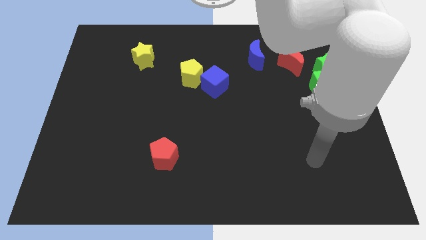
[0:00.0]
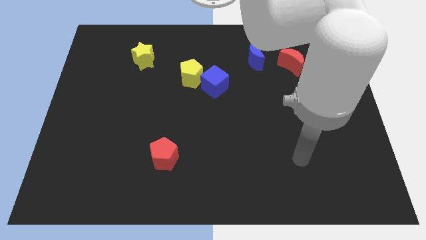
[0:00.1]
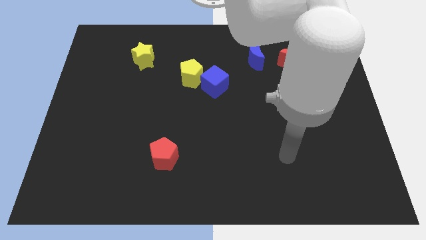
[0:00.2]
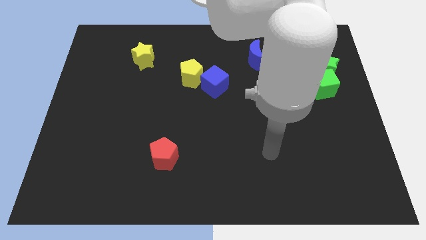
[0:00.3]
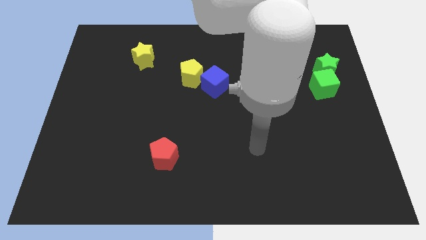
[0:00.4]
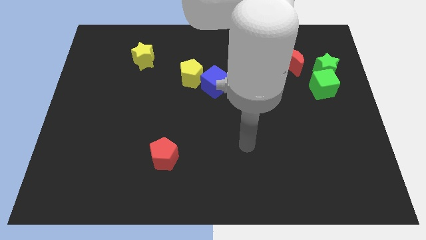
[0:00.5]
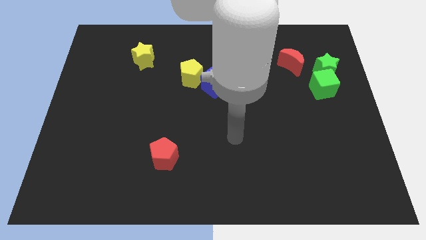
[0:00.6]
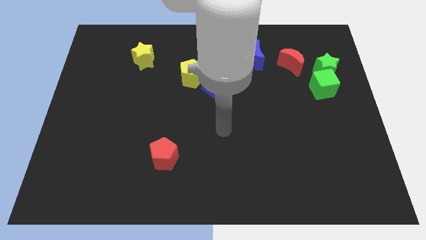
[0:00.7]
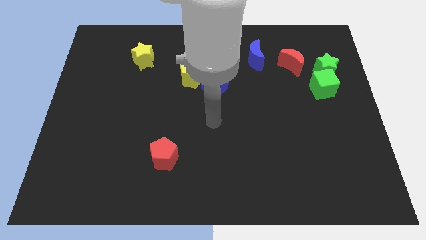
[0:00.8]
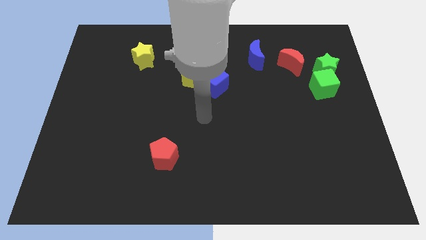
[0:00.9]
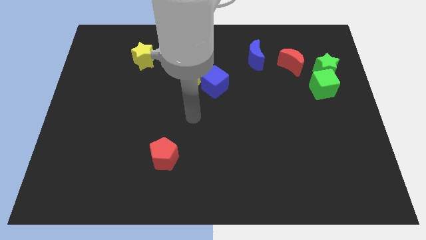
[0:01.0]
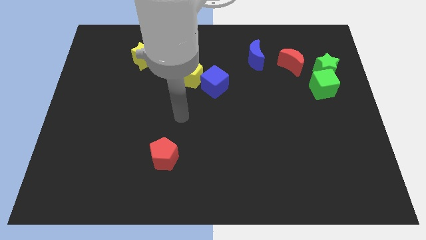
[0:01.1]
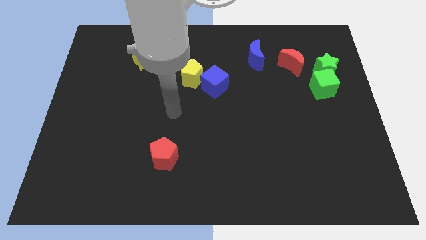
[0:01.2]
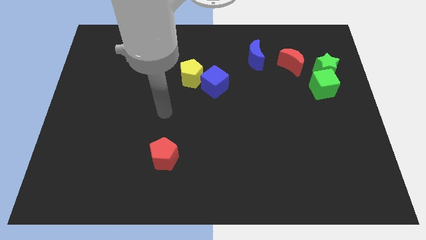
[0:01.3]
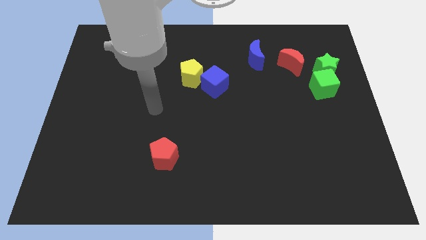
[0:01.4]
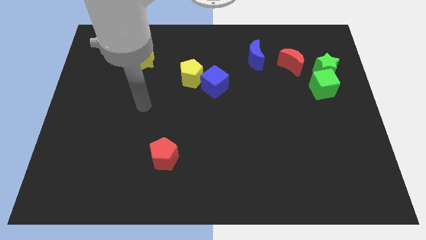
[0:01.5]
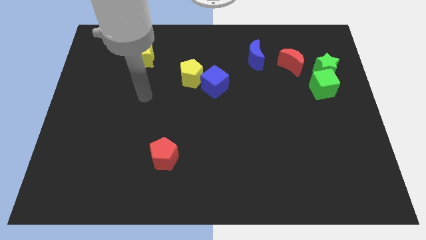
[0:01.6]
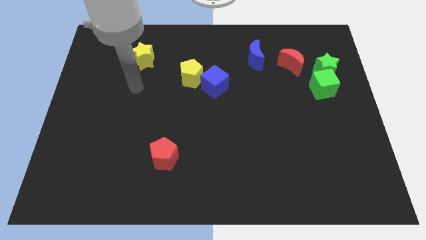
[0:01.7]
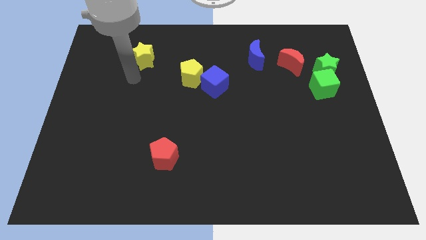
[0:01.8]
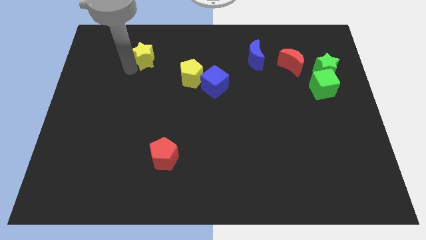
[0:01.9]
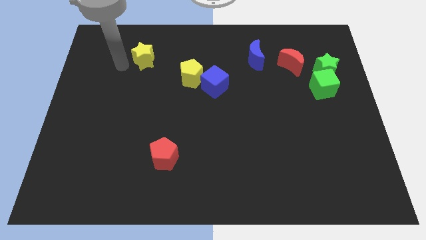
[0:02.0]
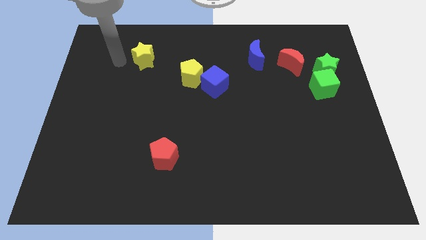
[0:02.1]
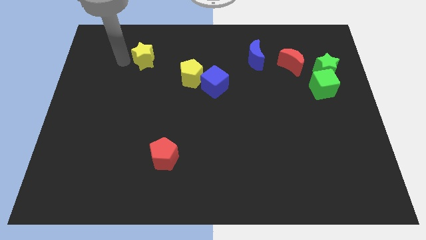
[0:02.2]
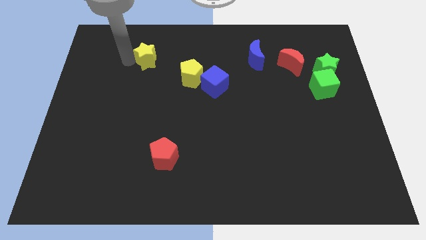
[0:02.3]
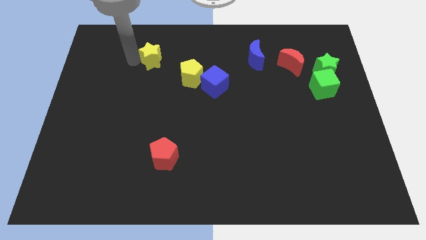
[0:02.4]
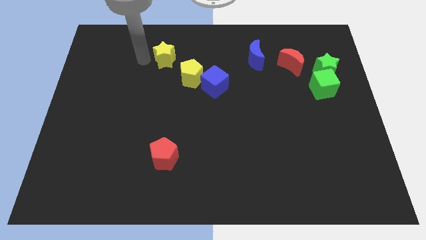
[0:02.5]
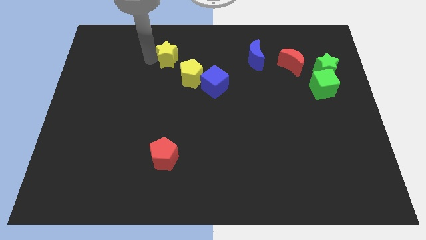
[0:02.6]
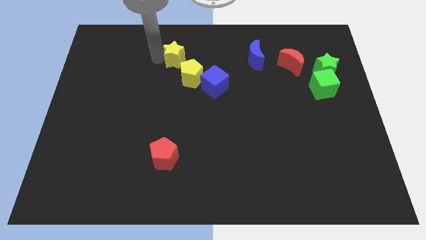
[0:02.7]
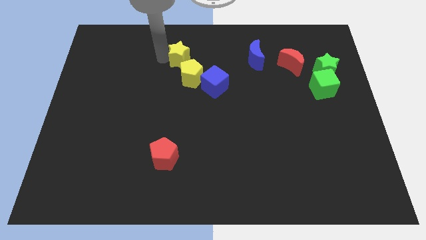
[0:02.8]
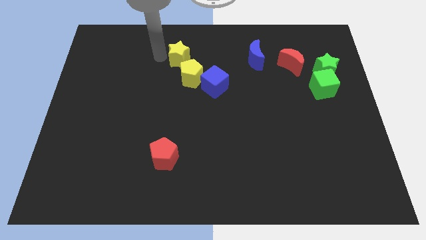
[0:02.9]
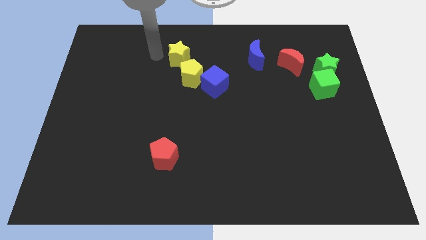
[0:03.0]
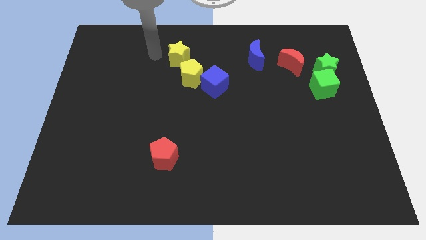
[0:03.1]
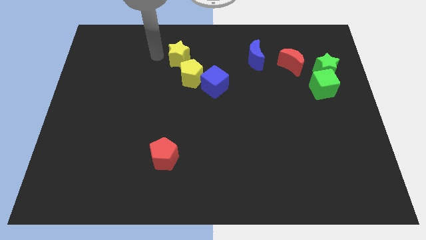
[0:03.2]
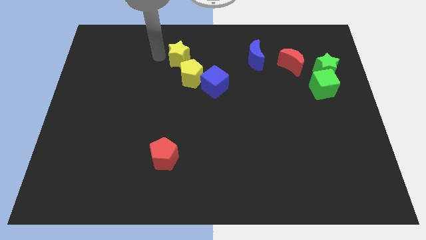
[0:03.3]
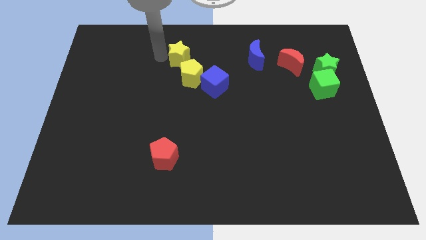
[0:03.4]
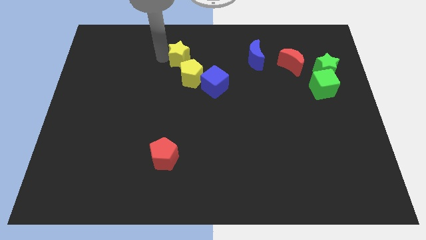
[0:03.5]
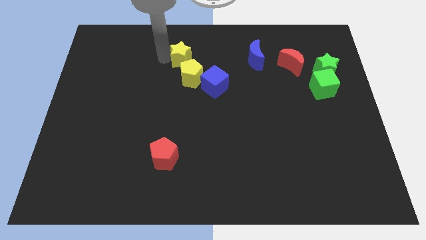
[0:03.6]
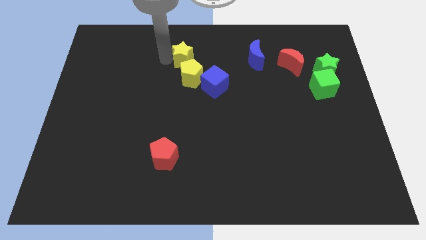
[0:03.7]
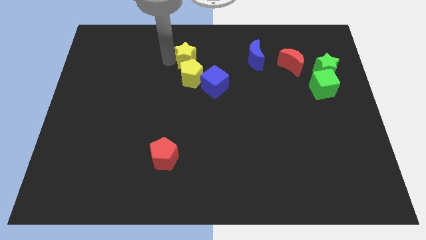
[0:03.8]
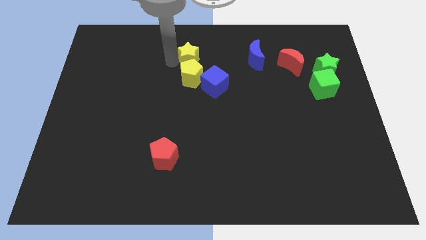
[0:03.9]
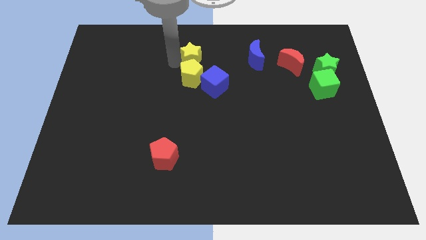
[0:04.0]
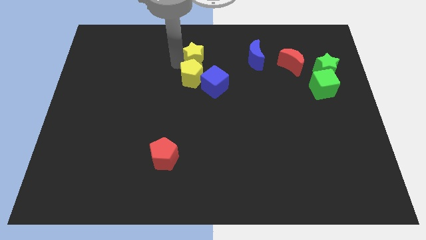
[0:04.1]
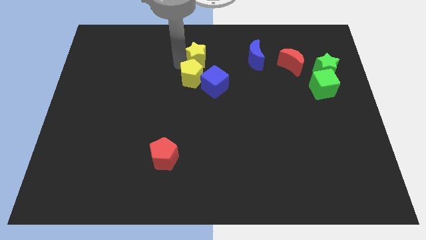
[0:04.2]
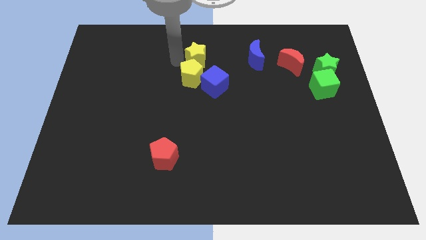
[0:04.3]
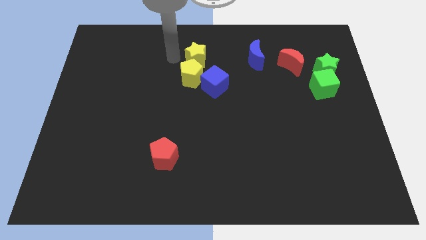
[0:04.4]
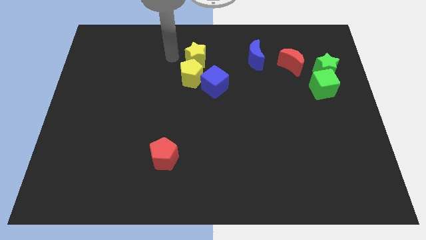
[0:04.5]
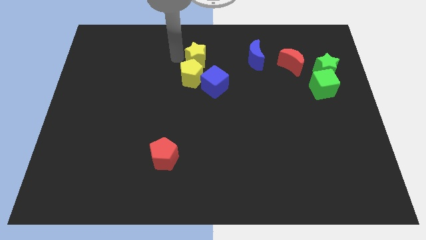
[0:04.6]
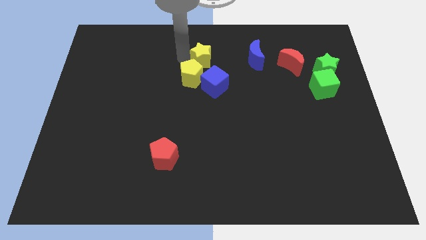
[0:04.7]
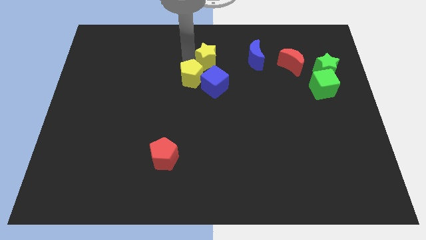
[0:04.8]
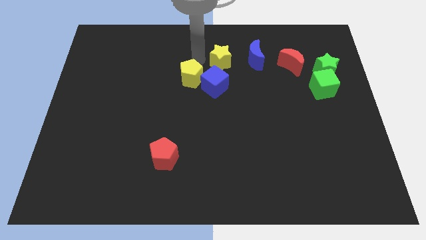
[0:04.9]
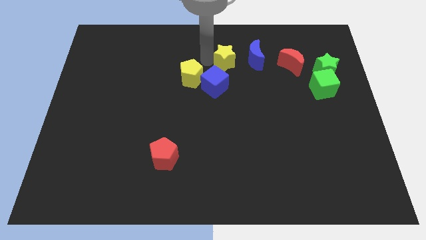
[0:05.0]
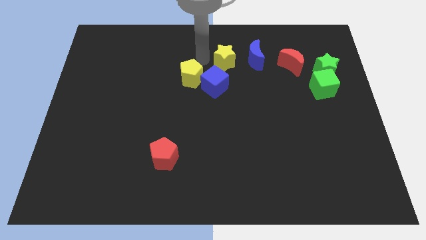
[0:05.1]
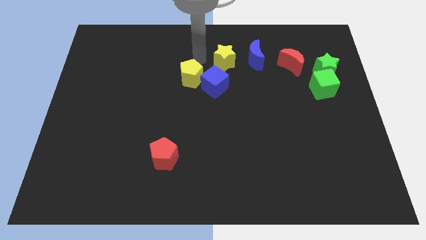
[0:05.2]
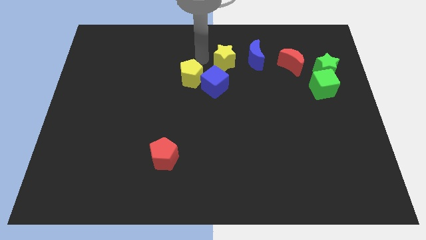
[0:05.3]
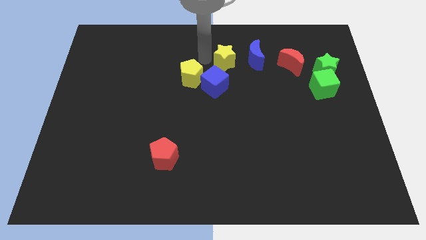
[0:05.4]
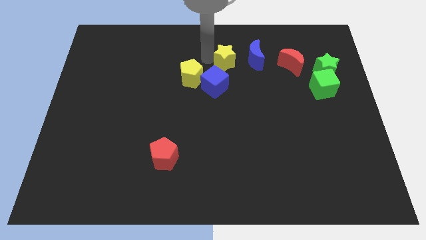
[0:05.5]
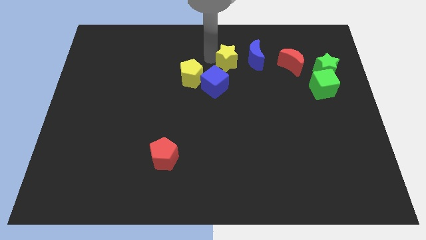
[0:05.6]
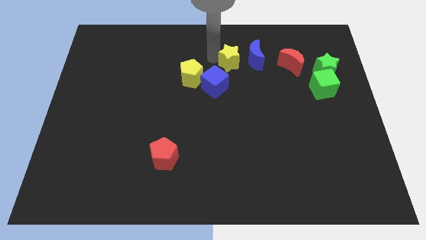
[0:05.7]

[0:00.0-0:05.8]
put the yellow star to the left of the red moon

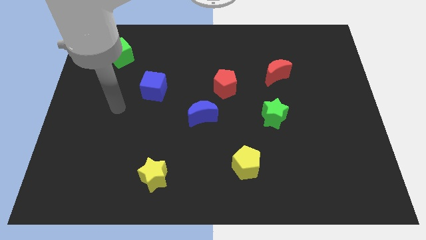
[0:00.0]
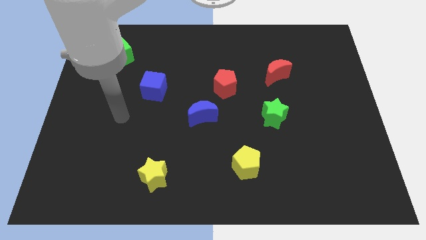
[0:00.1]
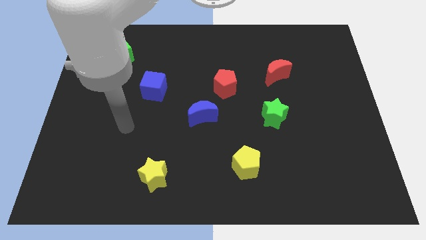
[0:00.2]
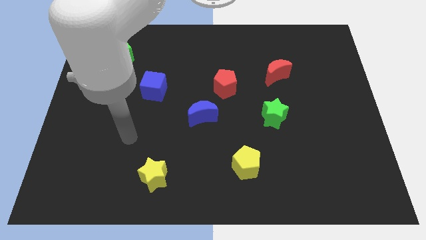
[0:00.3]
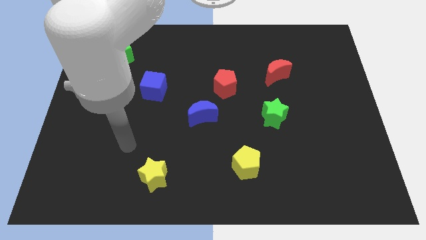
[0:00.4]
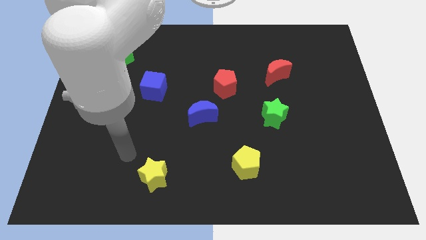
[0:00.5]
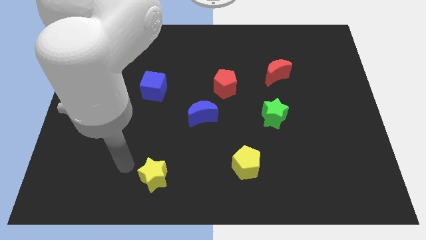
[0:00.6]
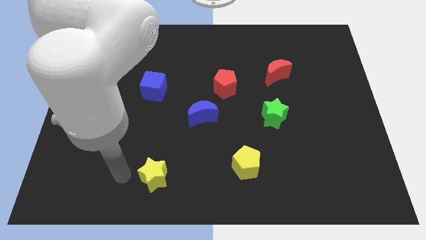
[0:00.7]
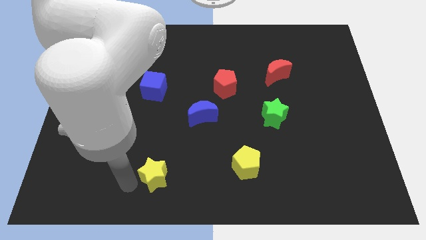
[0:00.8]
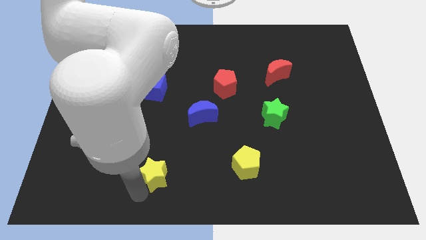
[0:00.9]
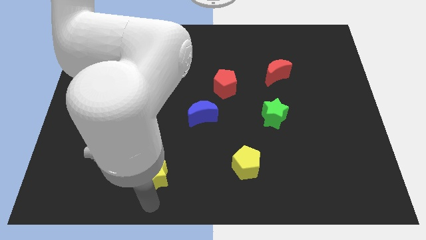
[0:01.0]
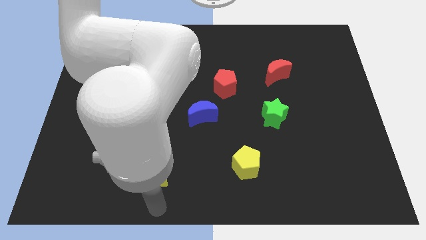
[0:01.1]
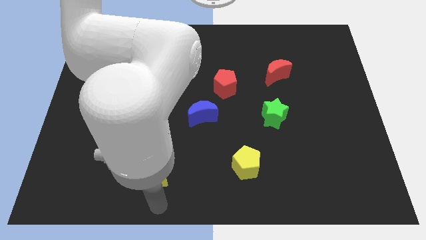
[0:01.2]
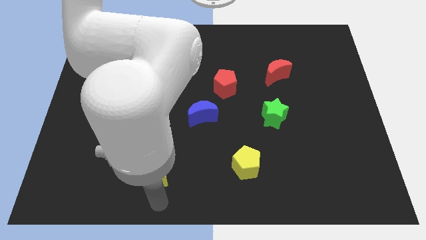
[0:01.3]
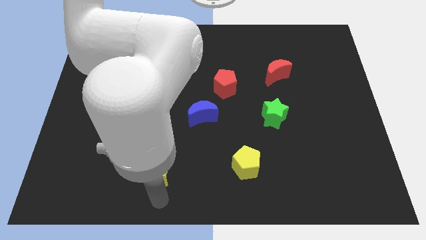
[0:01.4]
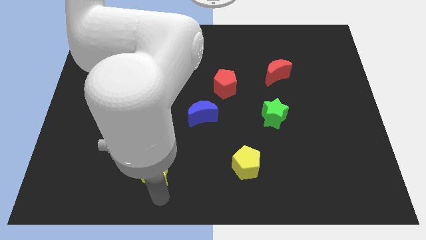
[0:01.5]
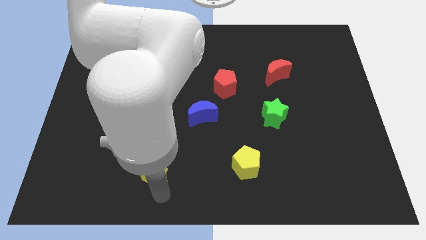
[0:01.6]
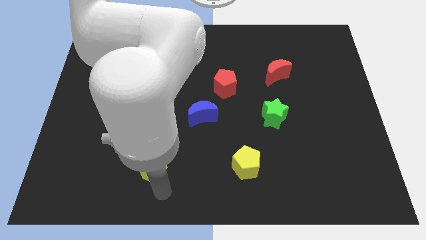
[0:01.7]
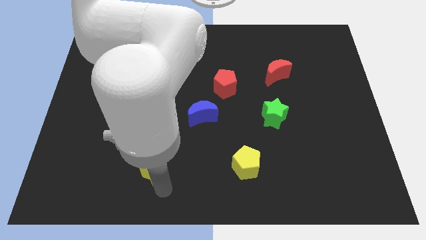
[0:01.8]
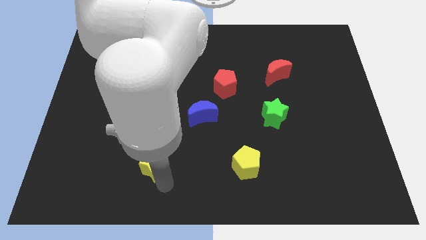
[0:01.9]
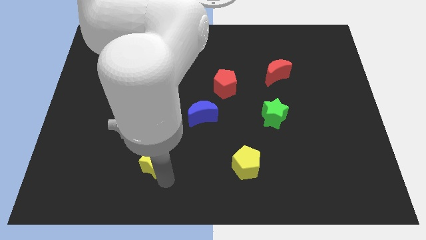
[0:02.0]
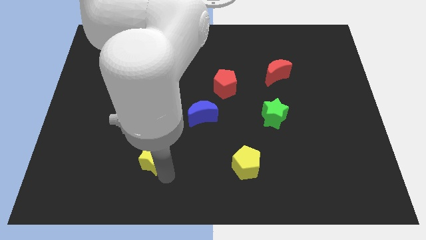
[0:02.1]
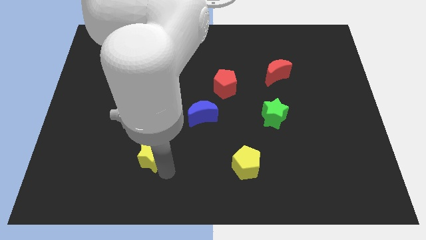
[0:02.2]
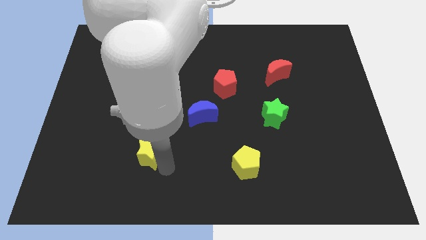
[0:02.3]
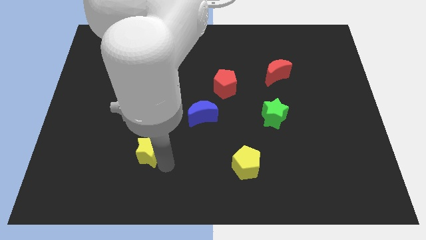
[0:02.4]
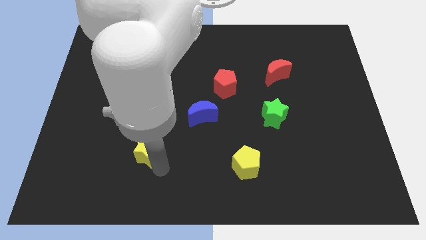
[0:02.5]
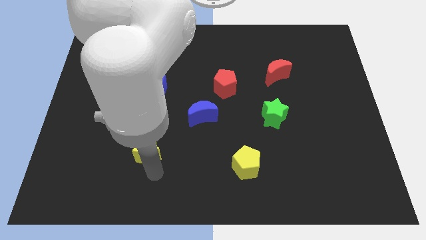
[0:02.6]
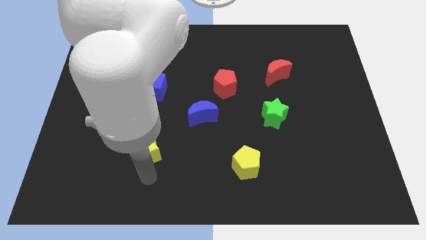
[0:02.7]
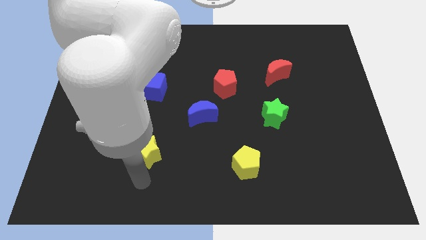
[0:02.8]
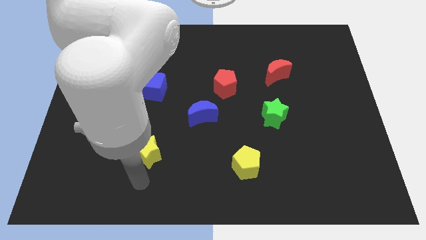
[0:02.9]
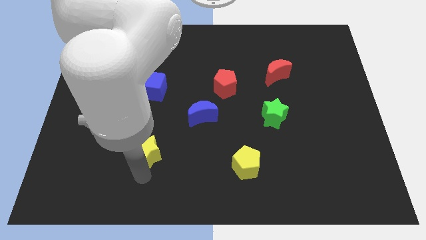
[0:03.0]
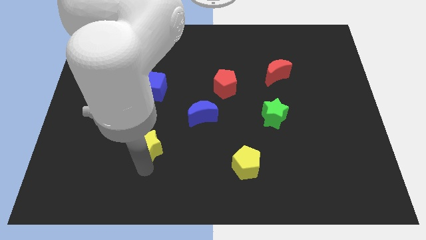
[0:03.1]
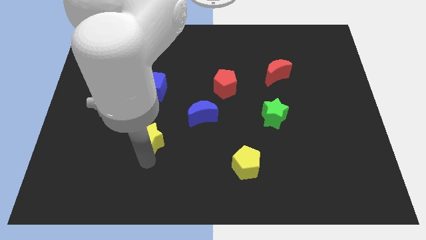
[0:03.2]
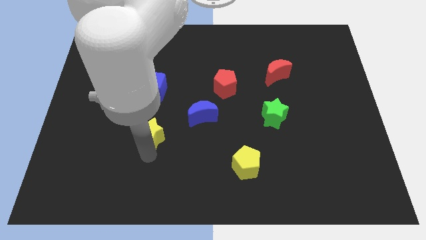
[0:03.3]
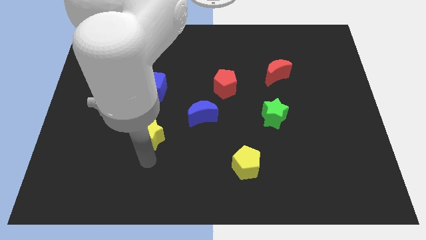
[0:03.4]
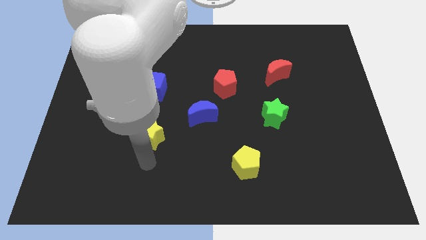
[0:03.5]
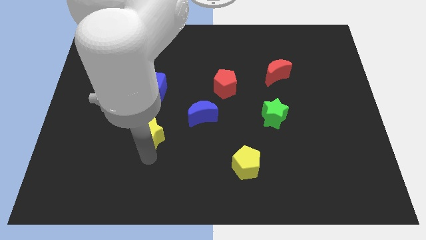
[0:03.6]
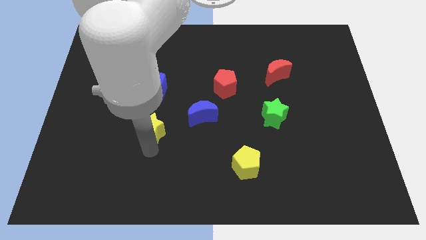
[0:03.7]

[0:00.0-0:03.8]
move the yellow star to the left side of the blue moon
